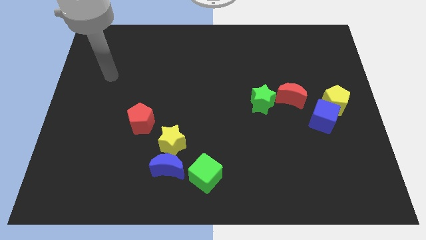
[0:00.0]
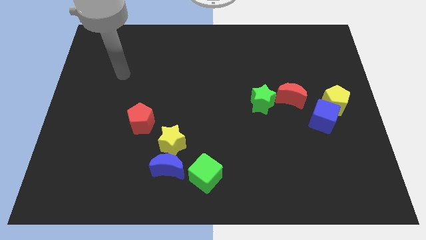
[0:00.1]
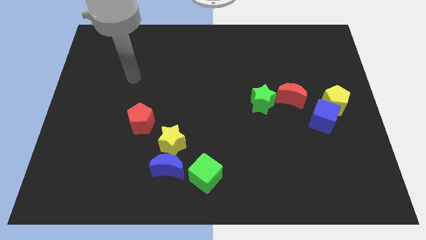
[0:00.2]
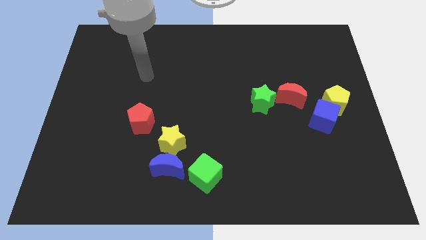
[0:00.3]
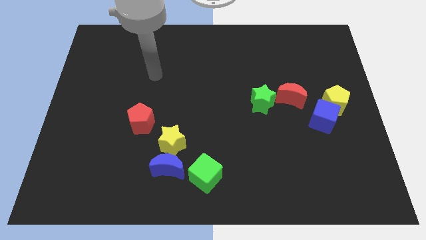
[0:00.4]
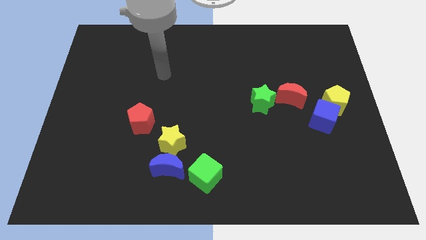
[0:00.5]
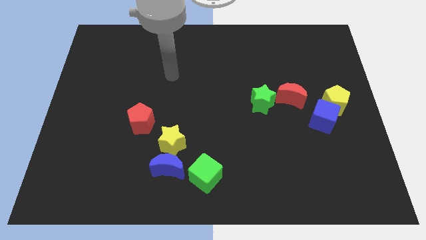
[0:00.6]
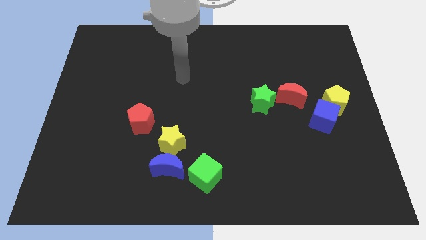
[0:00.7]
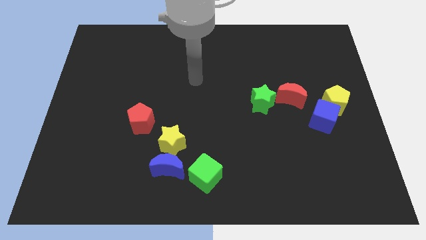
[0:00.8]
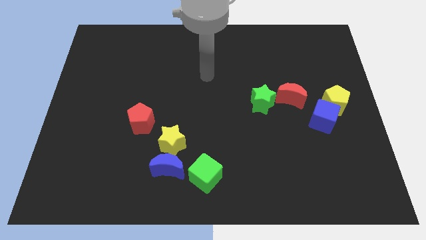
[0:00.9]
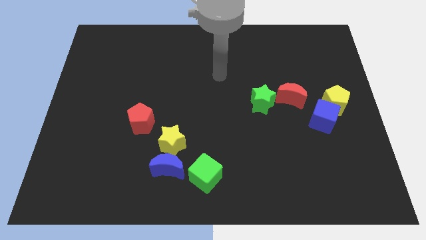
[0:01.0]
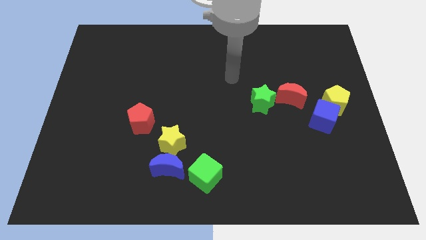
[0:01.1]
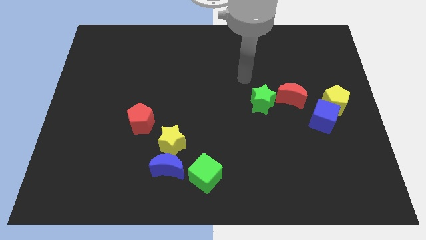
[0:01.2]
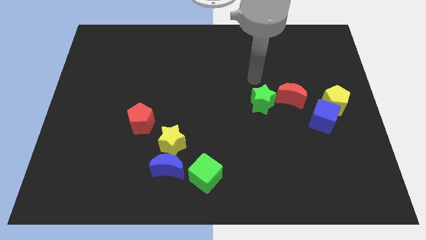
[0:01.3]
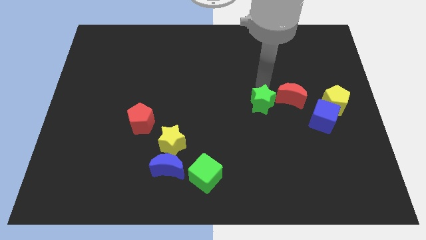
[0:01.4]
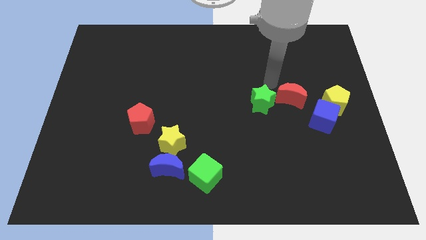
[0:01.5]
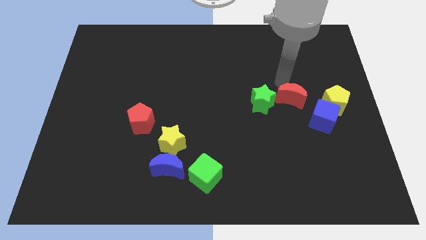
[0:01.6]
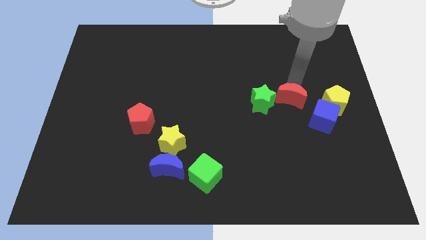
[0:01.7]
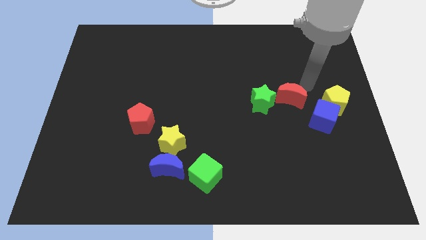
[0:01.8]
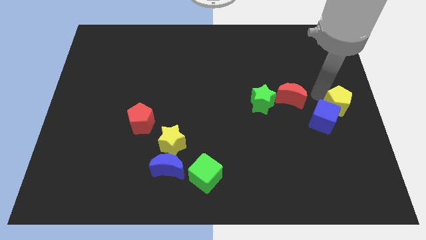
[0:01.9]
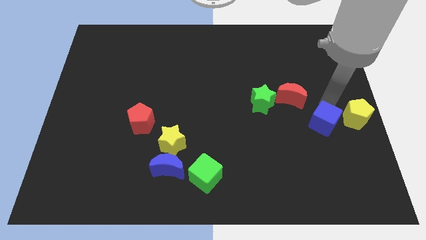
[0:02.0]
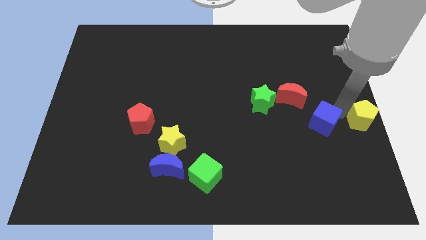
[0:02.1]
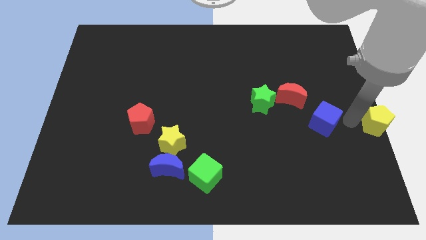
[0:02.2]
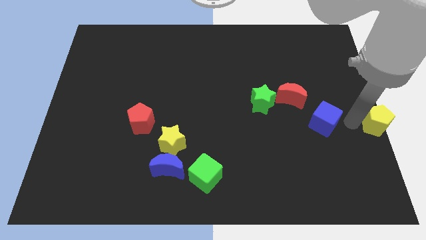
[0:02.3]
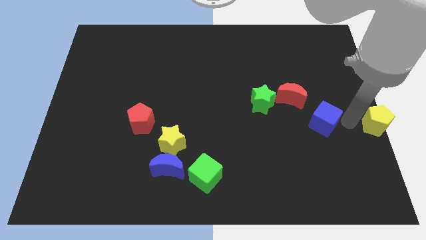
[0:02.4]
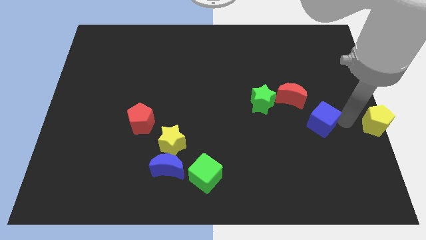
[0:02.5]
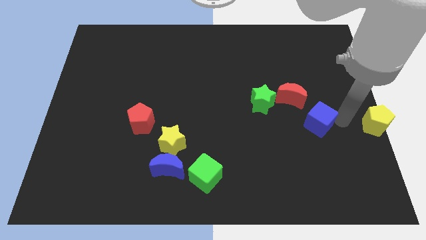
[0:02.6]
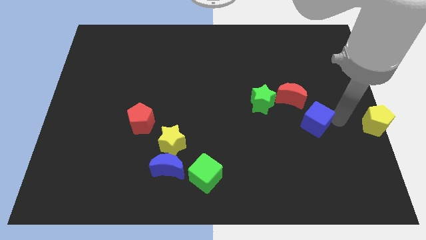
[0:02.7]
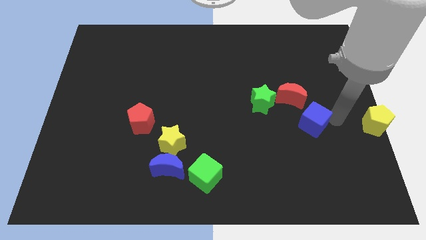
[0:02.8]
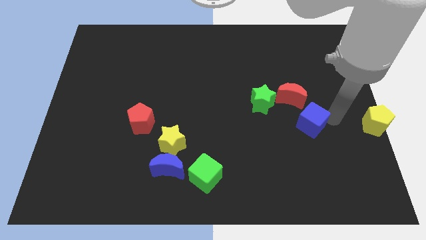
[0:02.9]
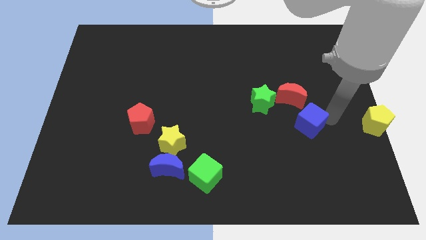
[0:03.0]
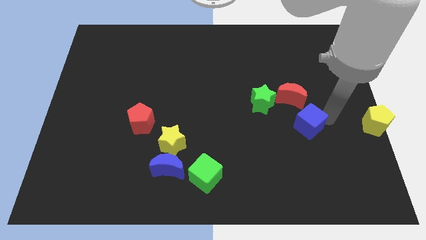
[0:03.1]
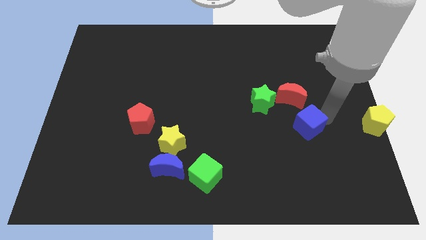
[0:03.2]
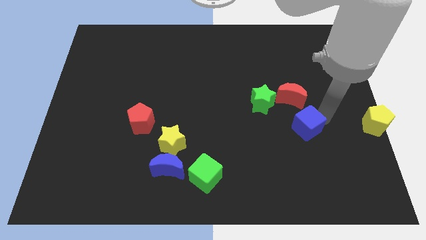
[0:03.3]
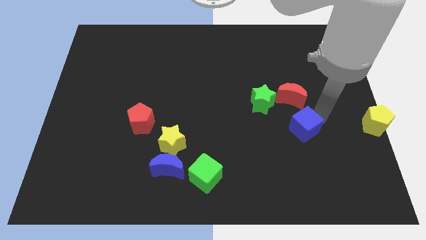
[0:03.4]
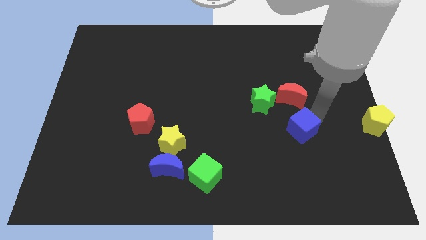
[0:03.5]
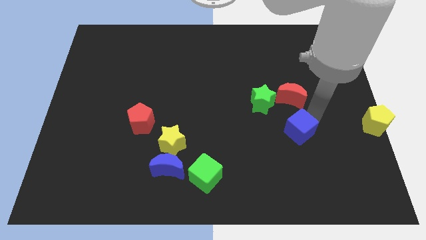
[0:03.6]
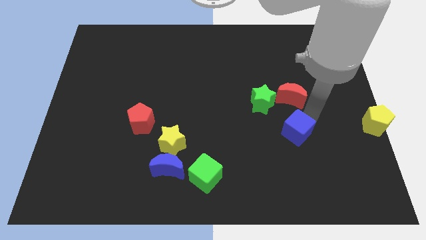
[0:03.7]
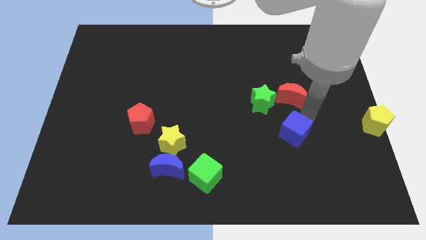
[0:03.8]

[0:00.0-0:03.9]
slightly move the blue cube to the left

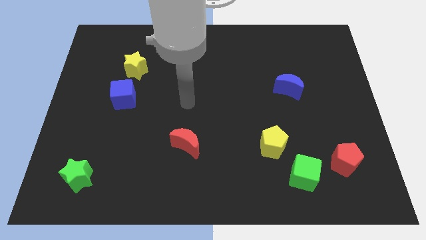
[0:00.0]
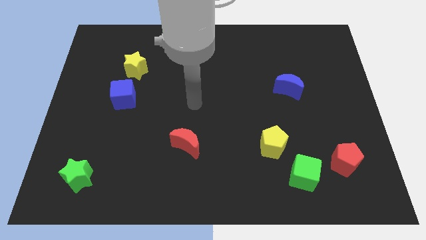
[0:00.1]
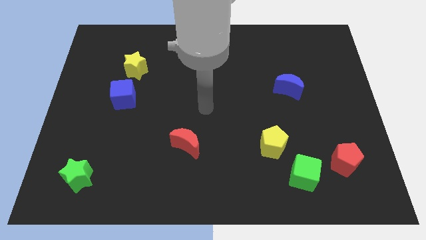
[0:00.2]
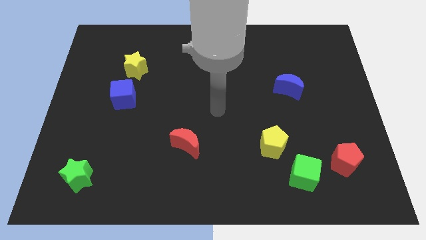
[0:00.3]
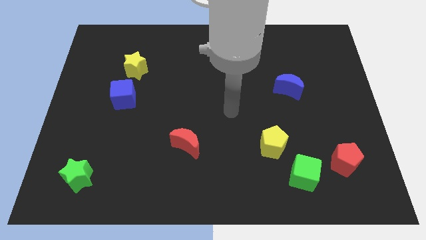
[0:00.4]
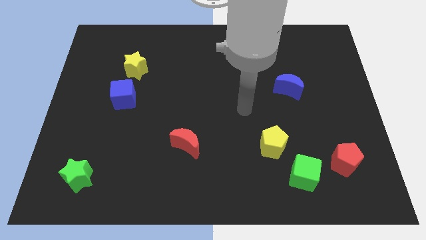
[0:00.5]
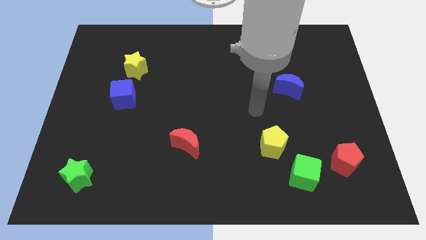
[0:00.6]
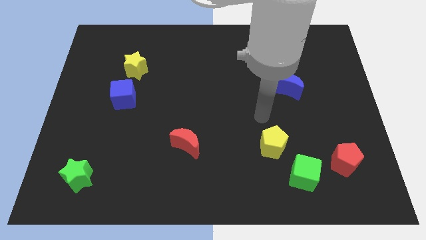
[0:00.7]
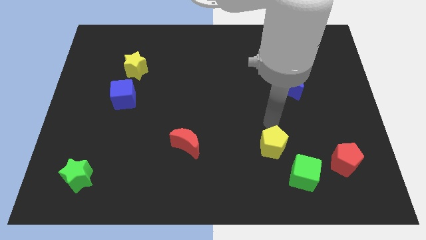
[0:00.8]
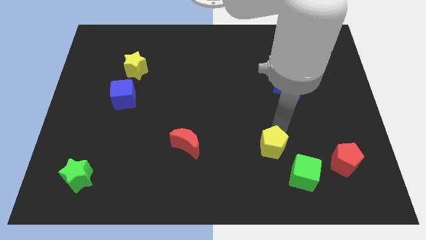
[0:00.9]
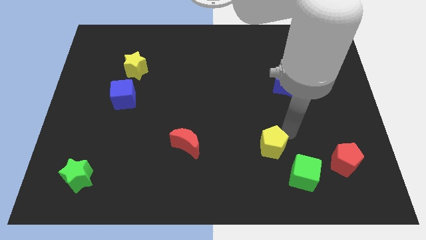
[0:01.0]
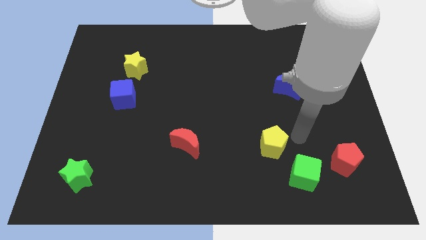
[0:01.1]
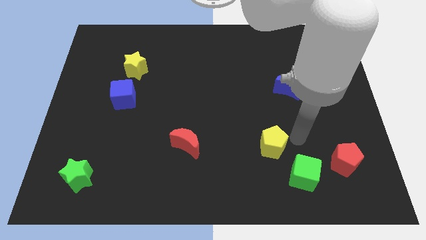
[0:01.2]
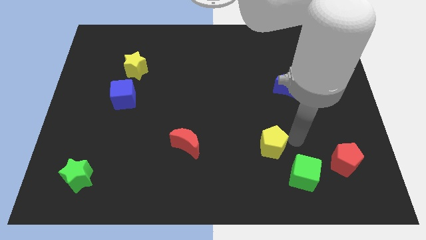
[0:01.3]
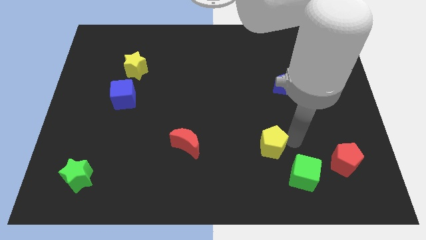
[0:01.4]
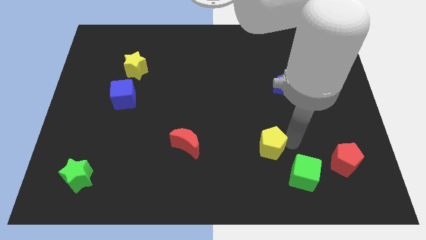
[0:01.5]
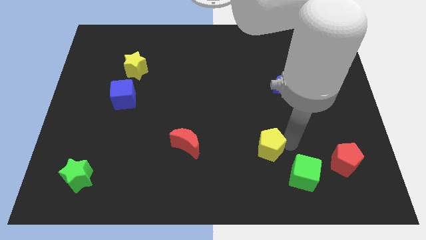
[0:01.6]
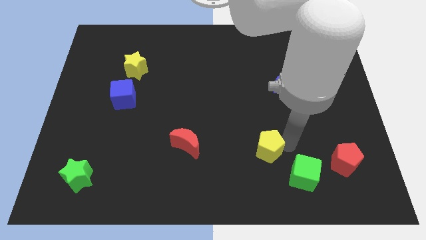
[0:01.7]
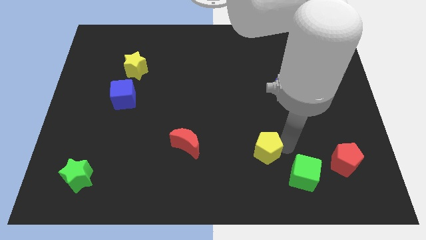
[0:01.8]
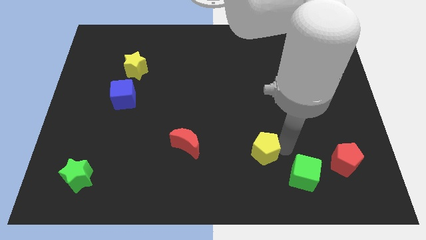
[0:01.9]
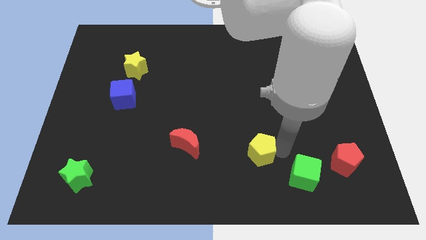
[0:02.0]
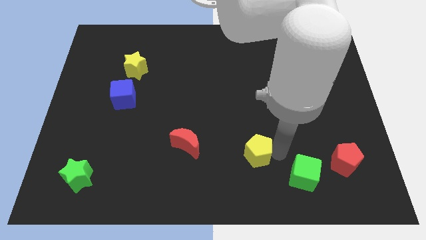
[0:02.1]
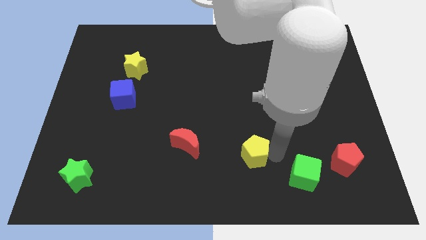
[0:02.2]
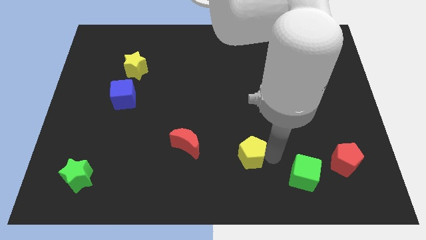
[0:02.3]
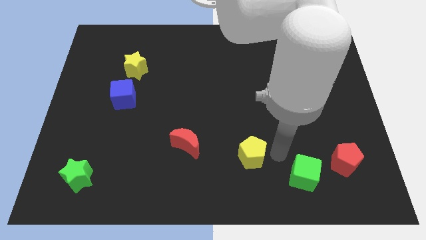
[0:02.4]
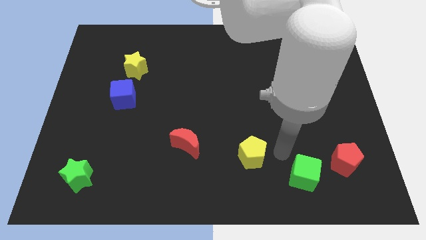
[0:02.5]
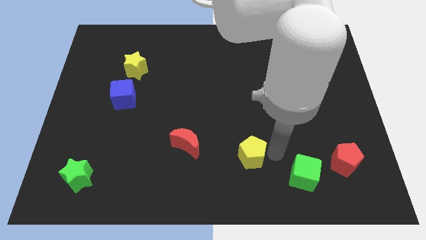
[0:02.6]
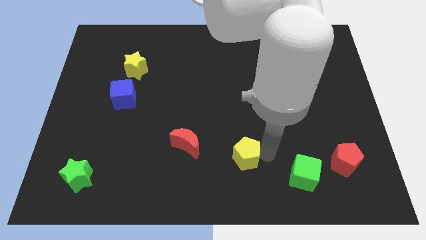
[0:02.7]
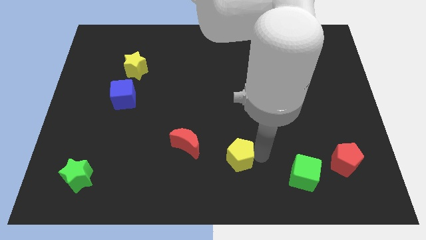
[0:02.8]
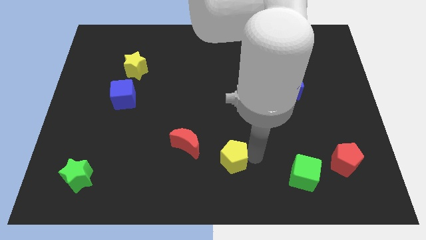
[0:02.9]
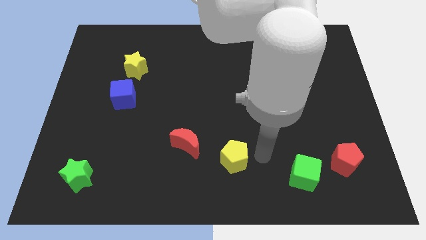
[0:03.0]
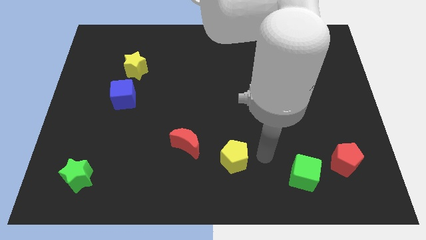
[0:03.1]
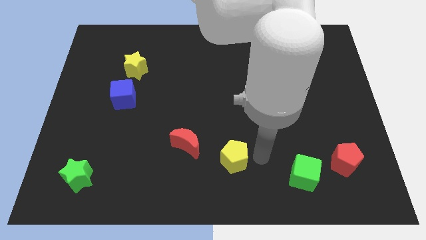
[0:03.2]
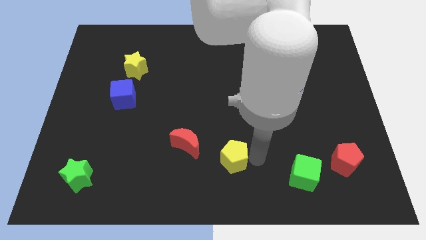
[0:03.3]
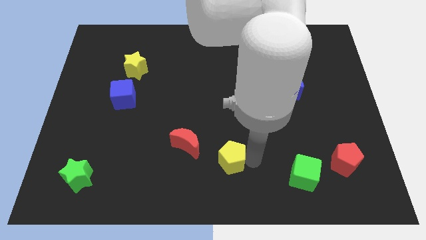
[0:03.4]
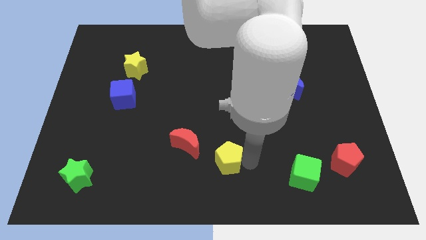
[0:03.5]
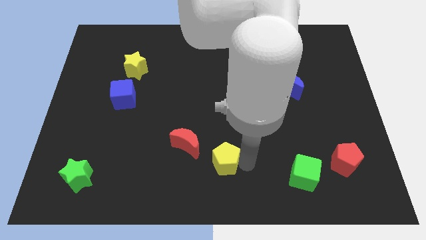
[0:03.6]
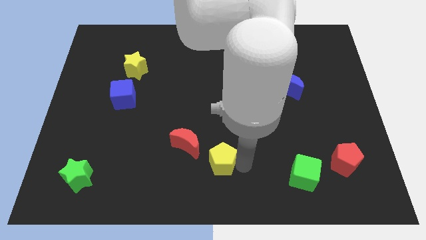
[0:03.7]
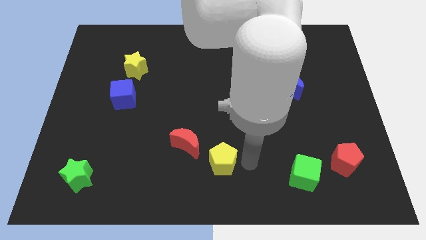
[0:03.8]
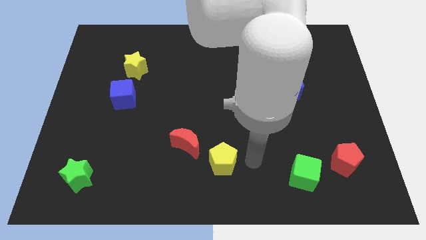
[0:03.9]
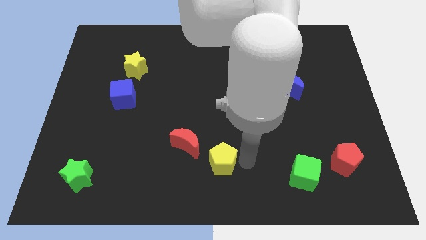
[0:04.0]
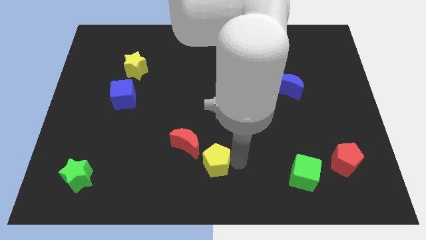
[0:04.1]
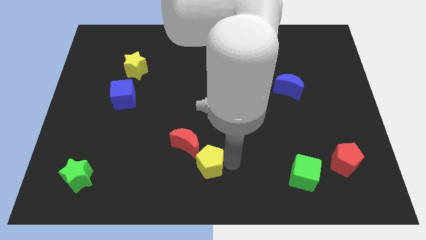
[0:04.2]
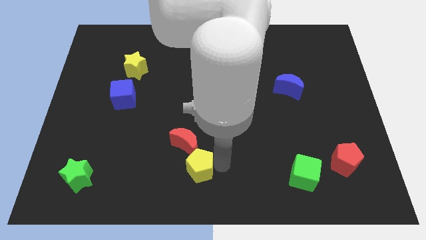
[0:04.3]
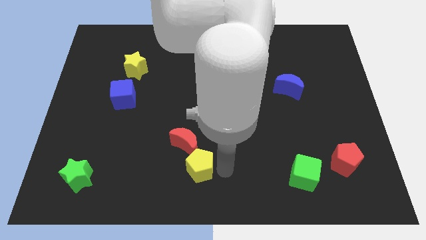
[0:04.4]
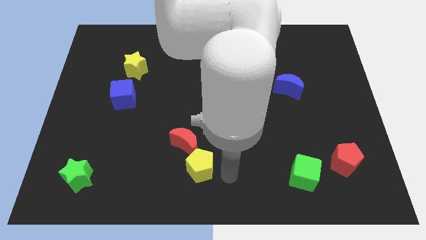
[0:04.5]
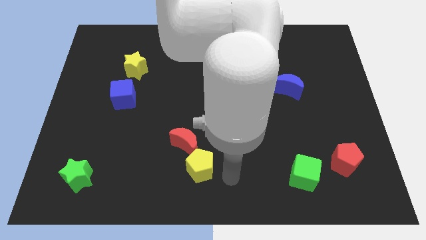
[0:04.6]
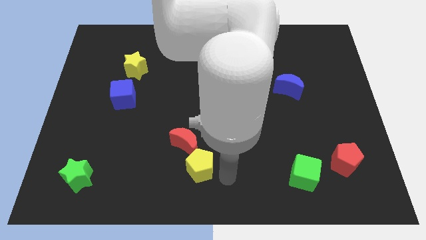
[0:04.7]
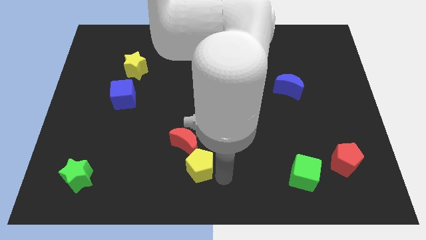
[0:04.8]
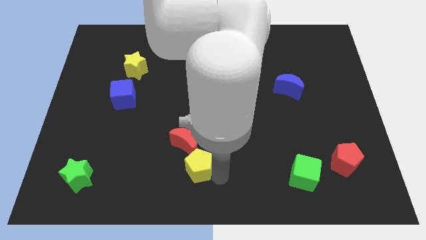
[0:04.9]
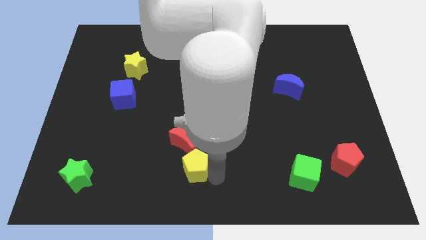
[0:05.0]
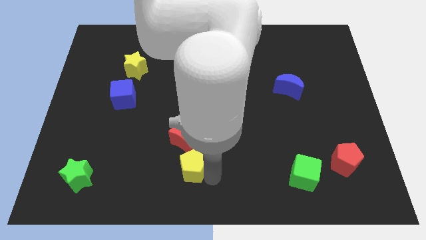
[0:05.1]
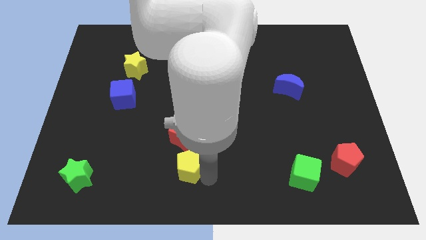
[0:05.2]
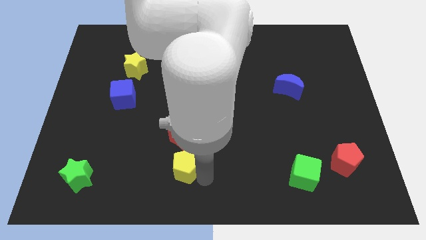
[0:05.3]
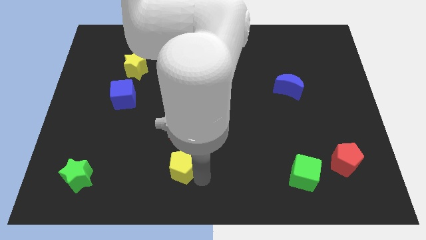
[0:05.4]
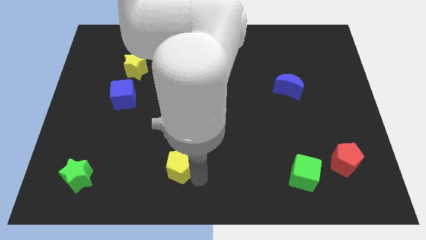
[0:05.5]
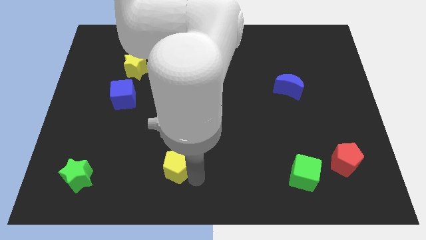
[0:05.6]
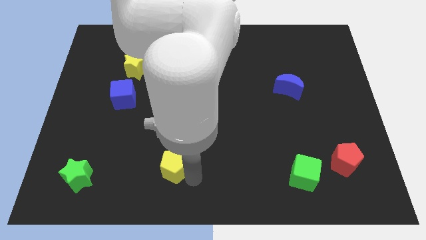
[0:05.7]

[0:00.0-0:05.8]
push the yellow pentagon to the left
